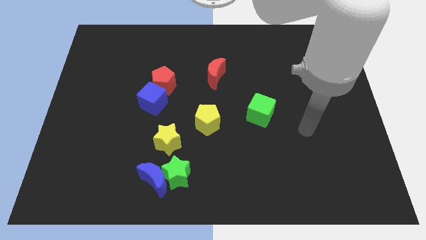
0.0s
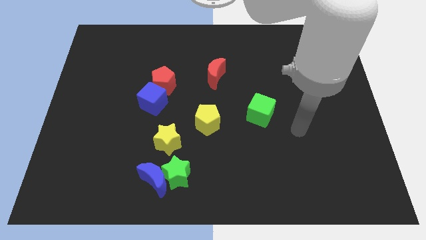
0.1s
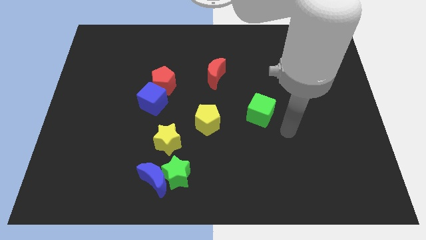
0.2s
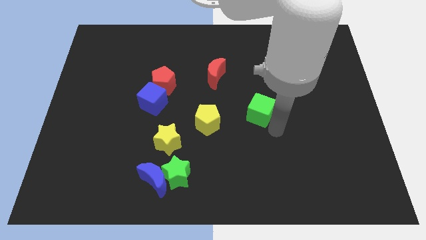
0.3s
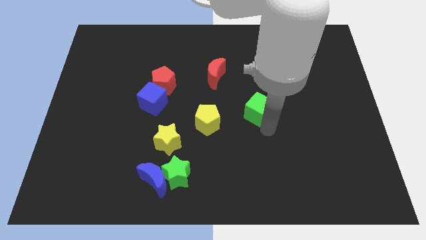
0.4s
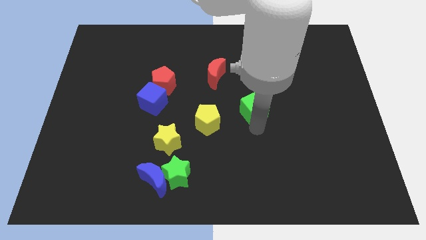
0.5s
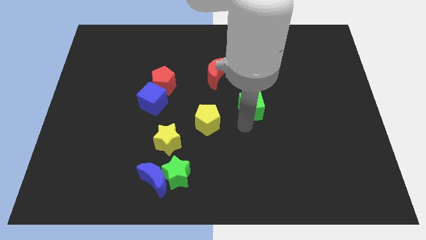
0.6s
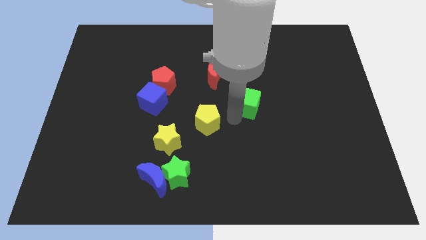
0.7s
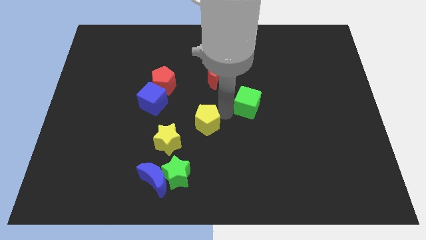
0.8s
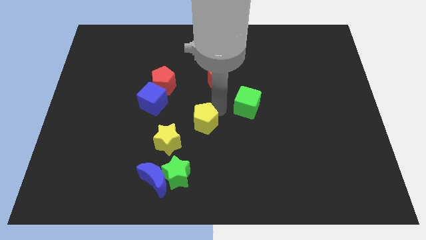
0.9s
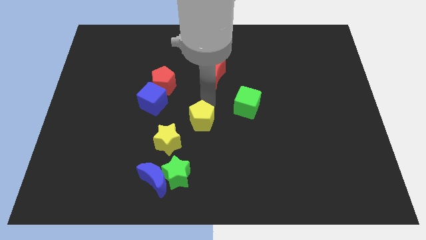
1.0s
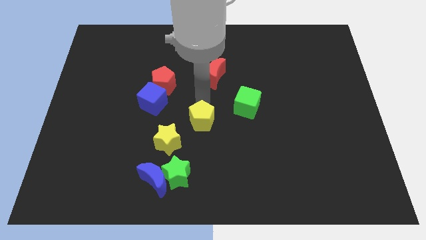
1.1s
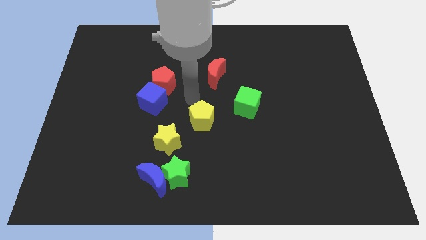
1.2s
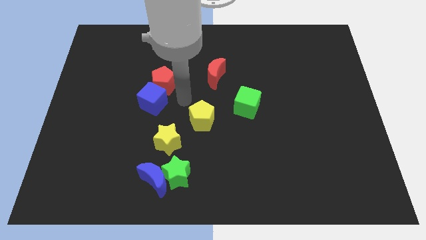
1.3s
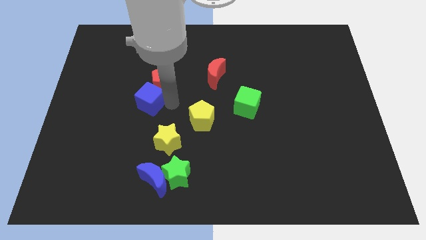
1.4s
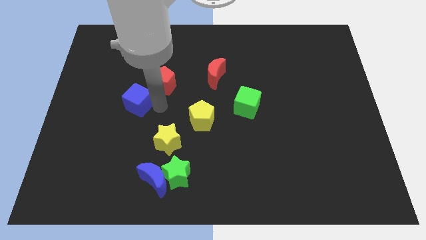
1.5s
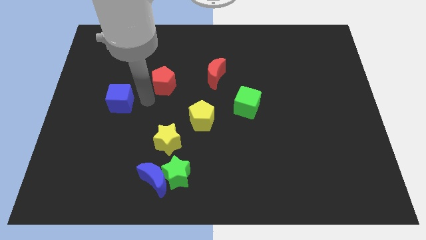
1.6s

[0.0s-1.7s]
move the red pentagon away from the blue cube

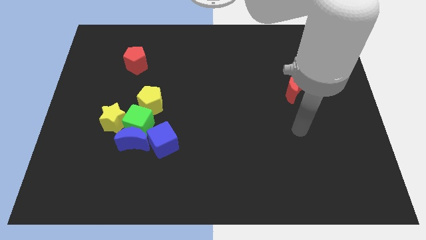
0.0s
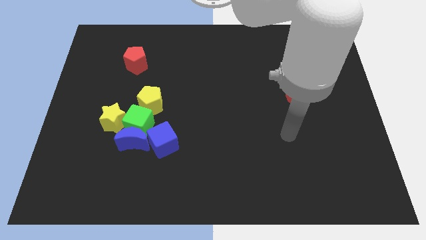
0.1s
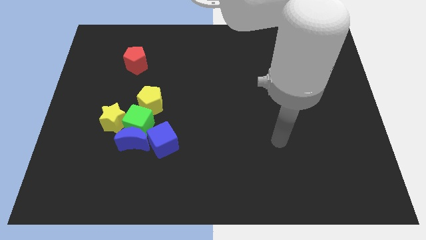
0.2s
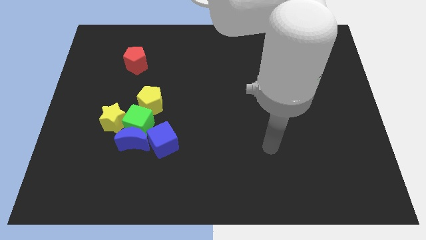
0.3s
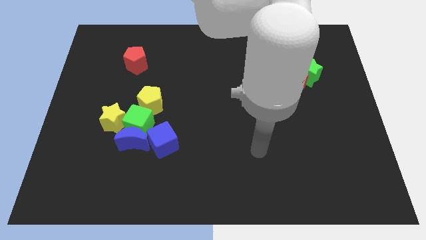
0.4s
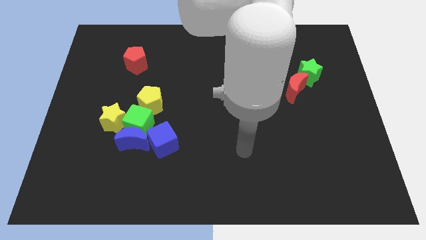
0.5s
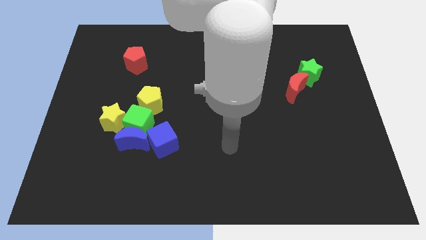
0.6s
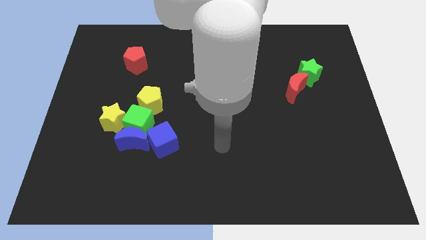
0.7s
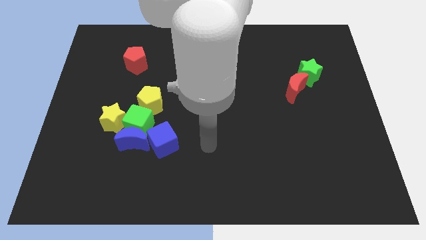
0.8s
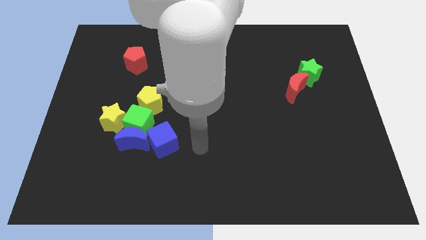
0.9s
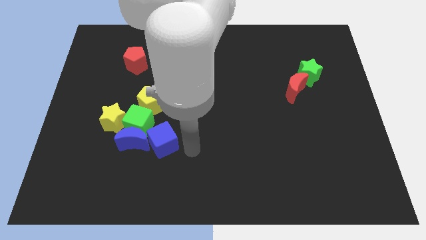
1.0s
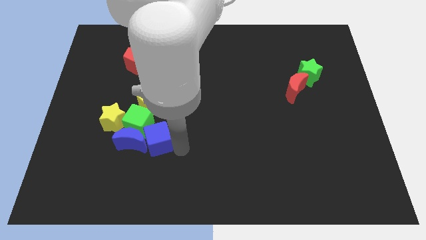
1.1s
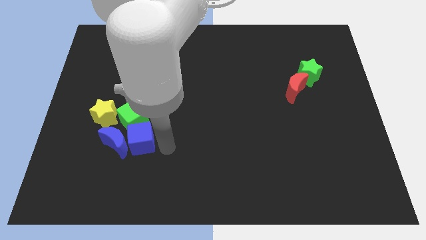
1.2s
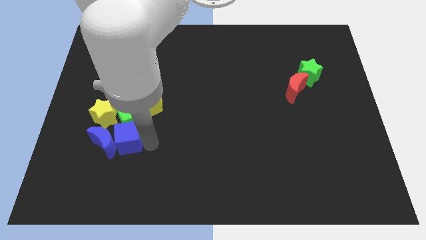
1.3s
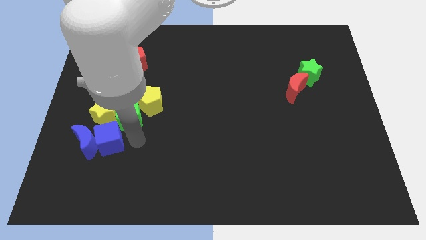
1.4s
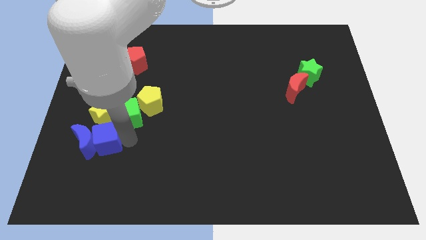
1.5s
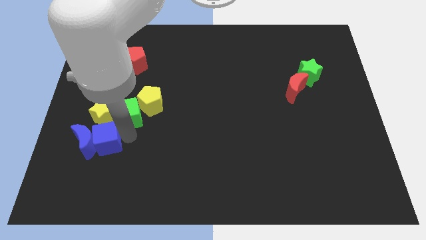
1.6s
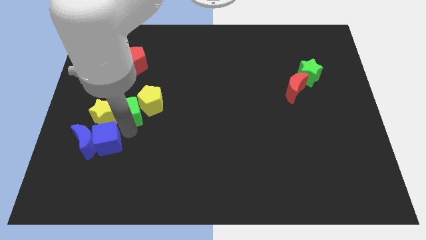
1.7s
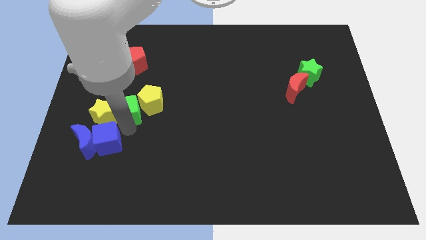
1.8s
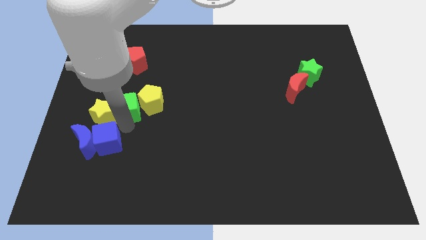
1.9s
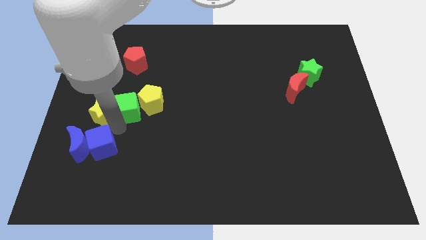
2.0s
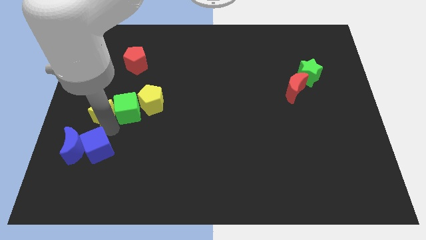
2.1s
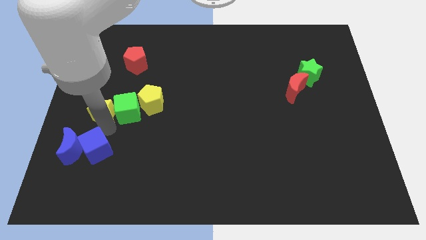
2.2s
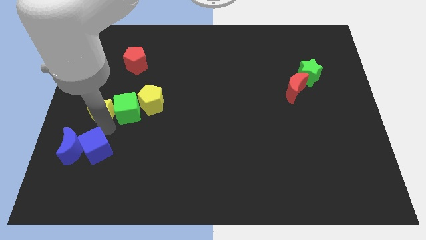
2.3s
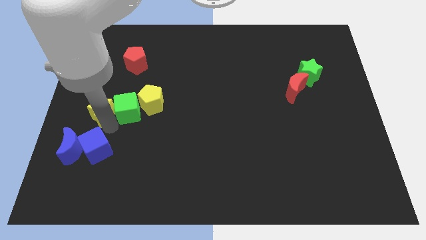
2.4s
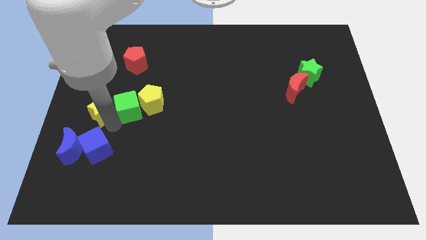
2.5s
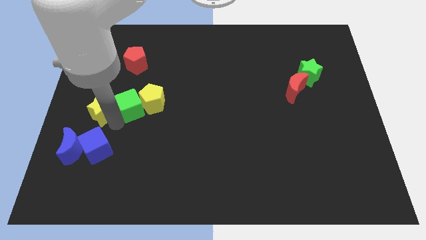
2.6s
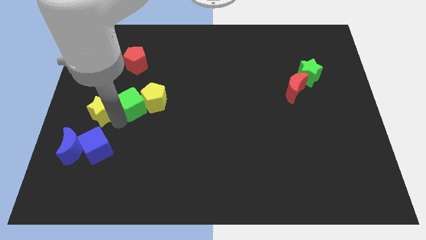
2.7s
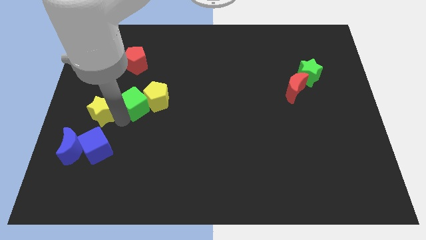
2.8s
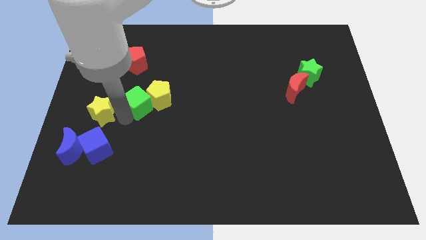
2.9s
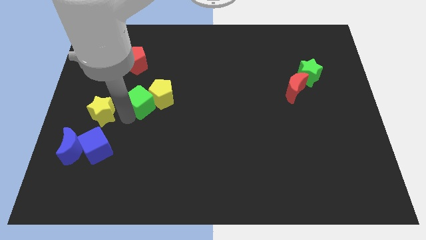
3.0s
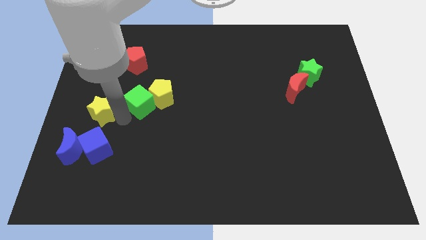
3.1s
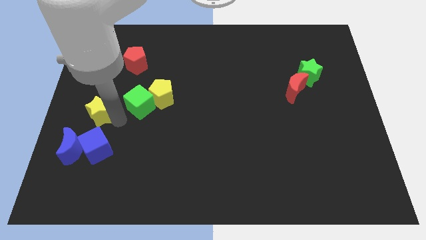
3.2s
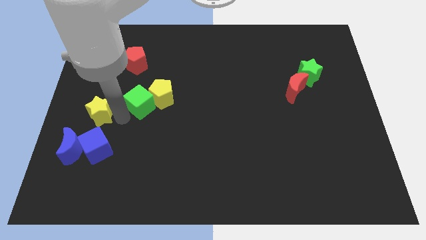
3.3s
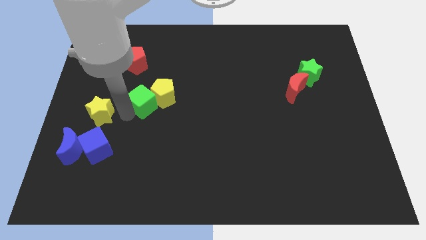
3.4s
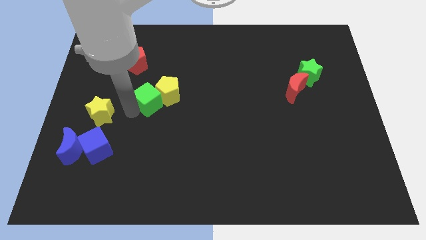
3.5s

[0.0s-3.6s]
pull the green cube apart from the group of blocks

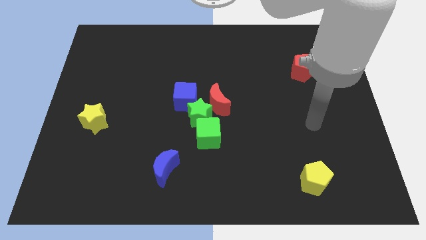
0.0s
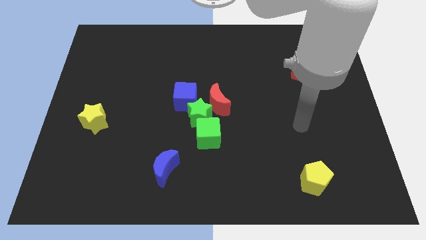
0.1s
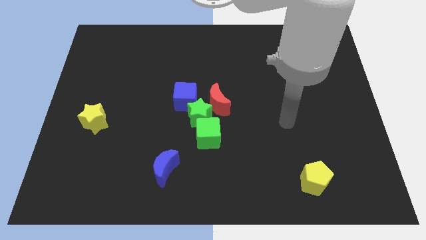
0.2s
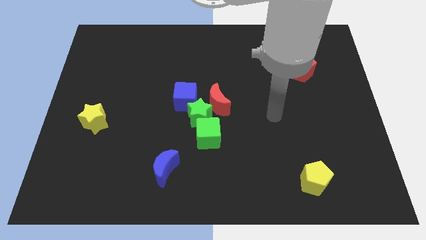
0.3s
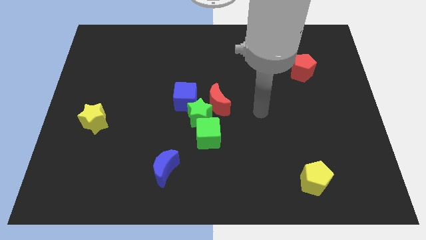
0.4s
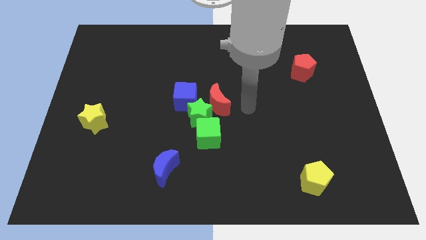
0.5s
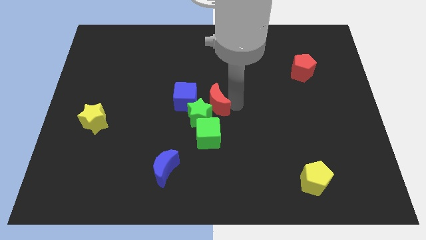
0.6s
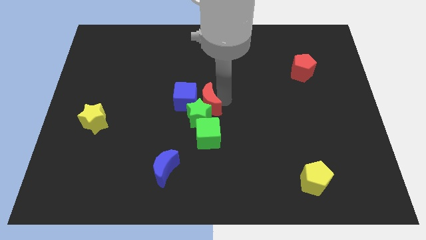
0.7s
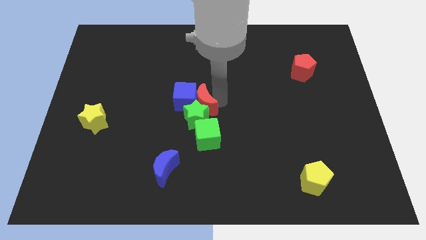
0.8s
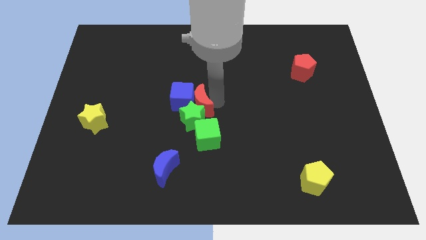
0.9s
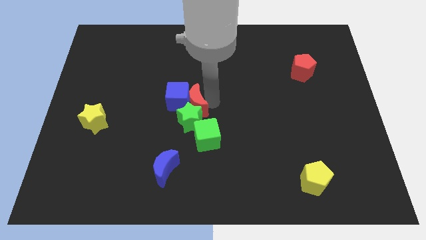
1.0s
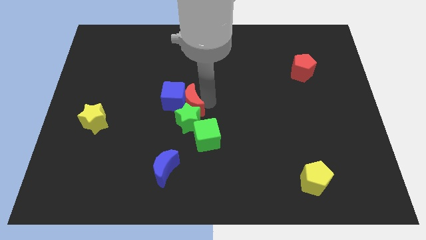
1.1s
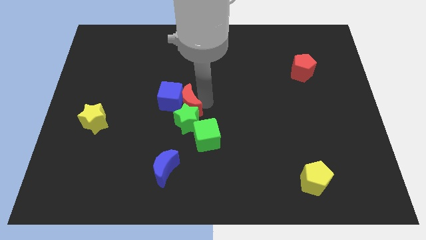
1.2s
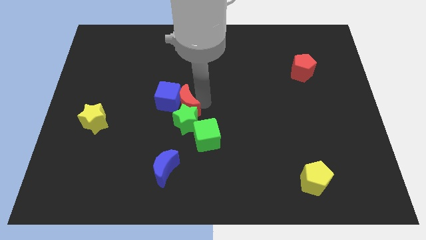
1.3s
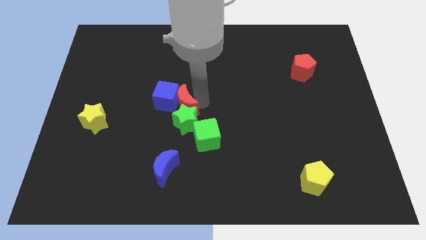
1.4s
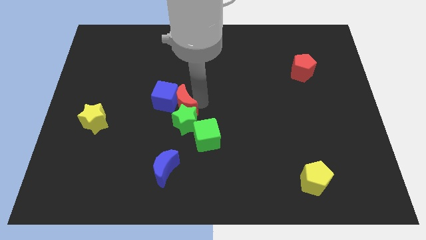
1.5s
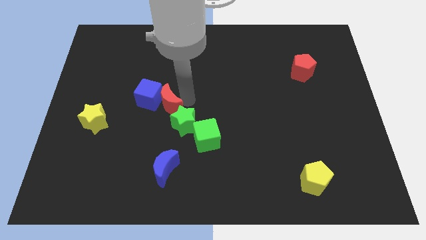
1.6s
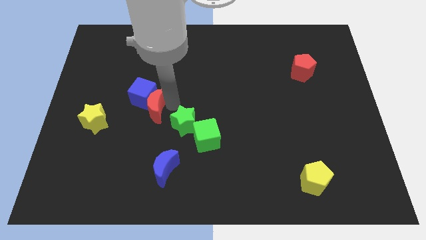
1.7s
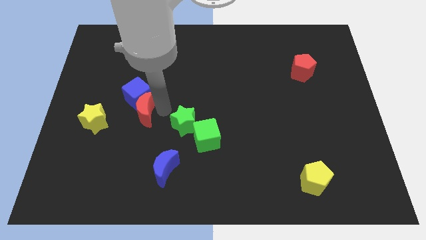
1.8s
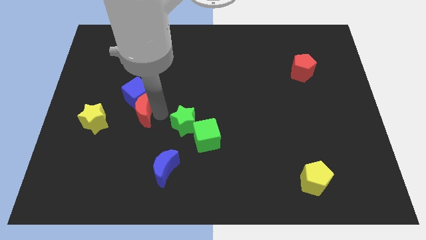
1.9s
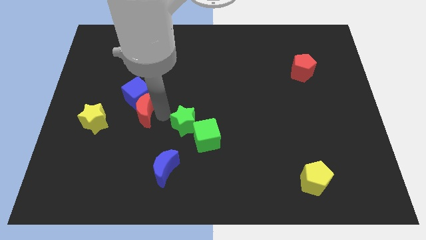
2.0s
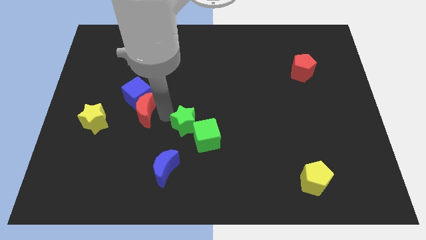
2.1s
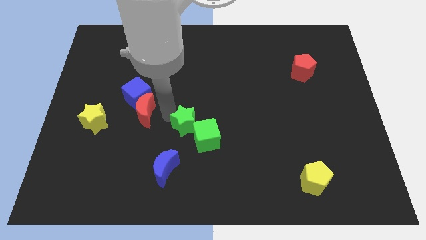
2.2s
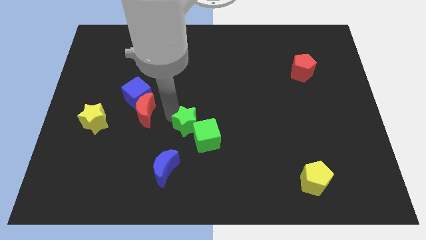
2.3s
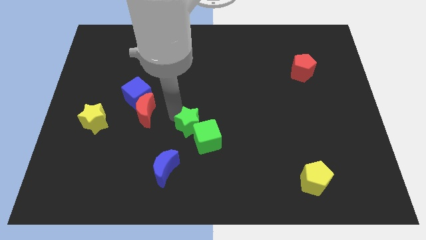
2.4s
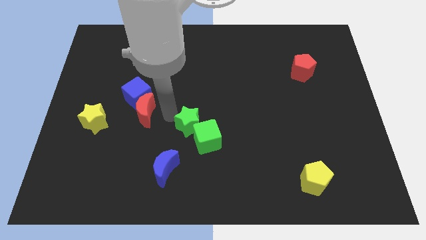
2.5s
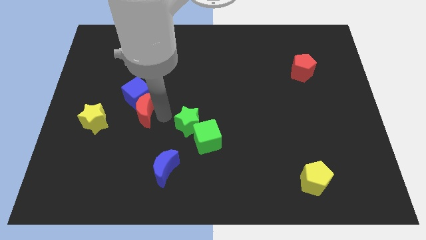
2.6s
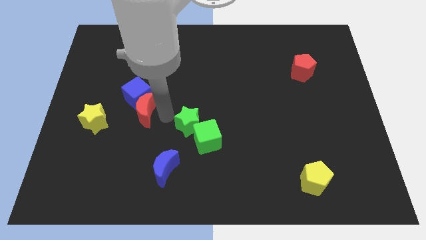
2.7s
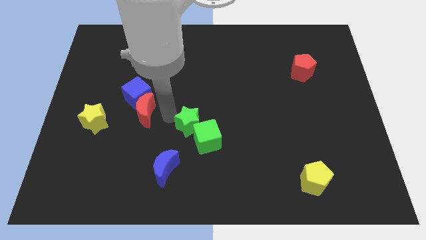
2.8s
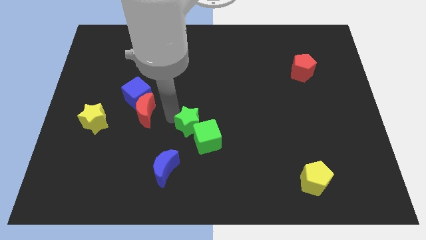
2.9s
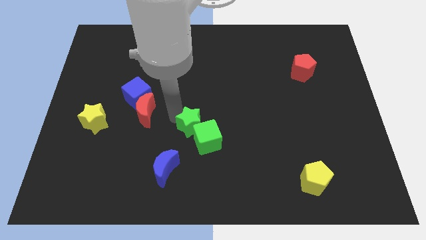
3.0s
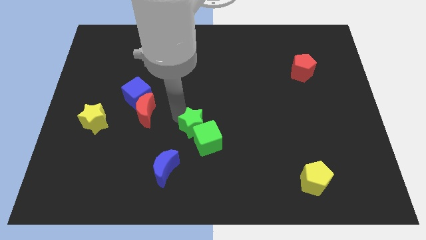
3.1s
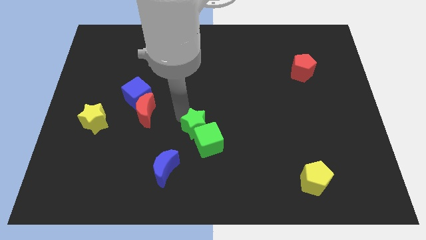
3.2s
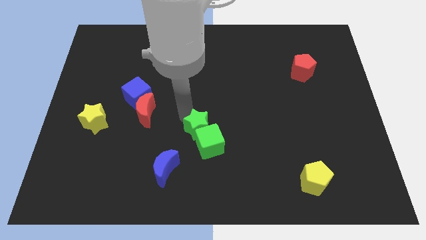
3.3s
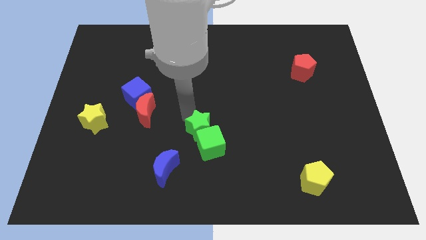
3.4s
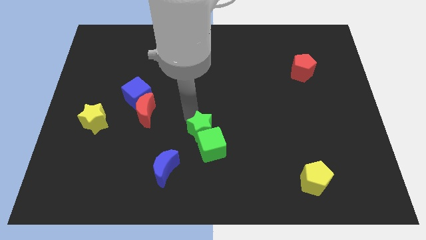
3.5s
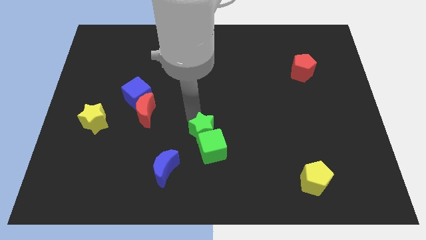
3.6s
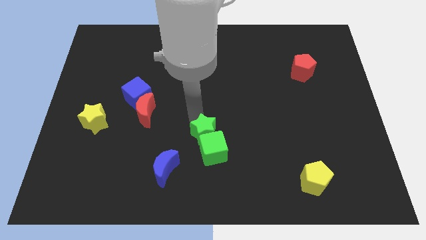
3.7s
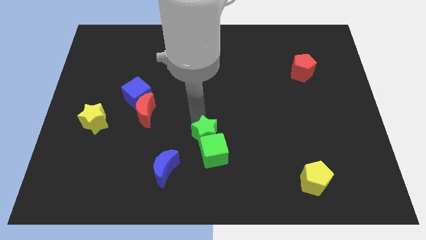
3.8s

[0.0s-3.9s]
separate the green star from the clump

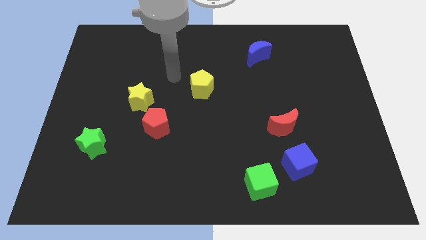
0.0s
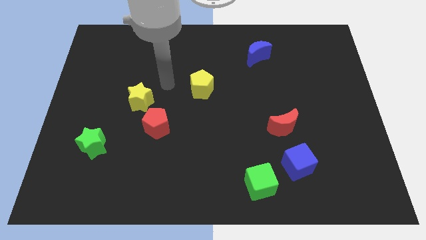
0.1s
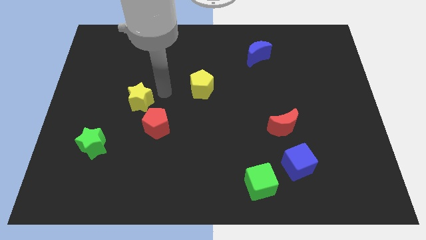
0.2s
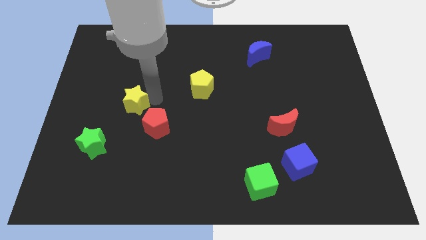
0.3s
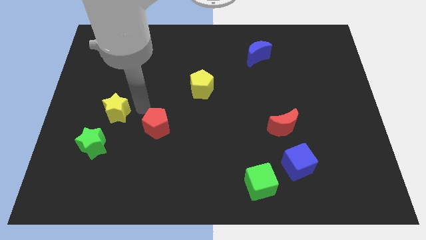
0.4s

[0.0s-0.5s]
pull the red pentagon apart from the yellow star
